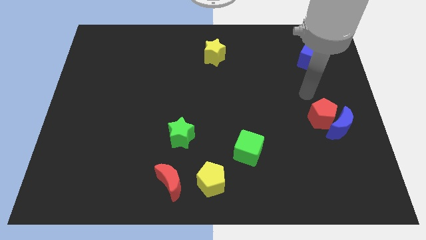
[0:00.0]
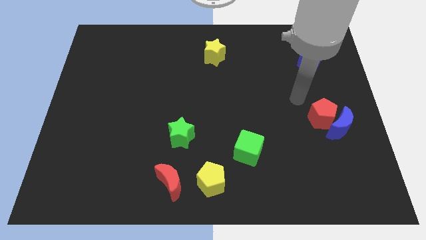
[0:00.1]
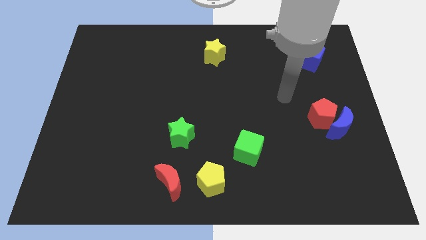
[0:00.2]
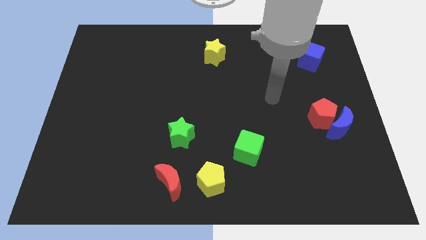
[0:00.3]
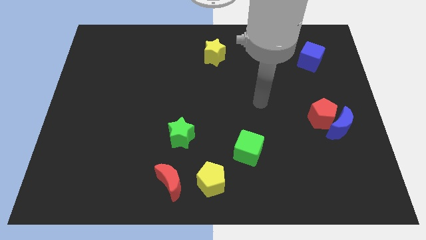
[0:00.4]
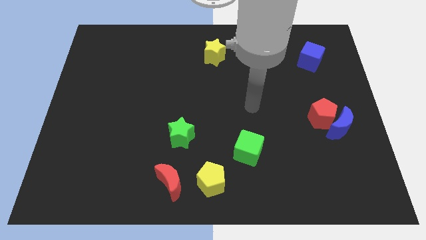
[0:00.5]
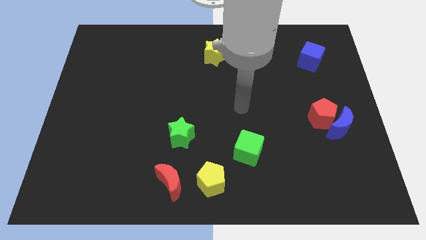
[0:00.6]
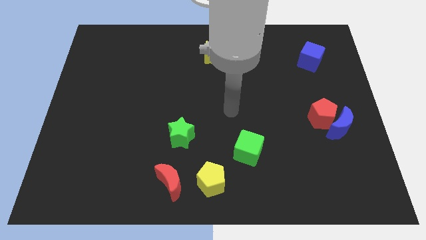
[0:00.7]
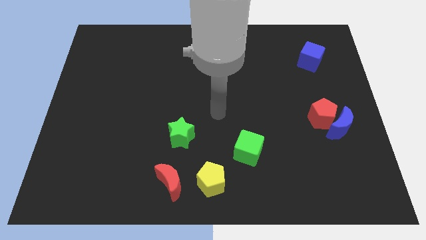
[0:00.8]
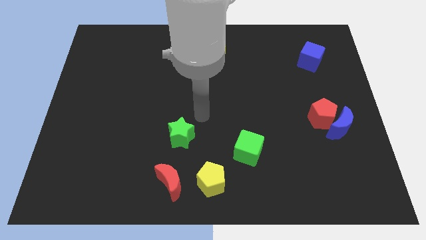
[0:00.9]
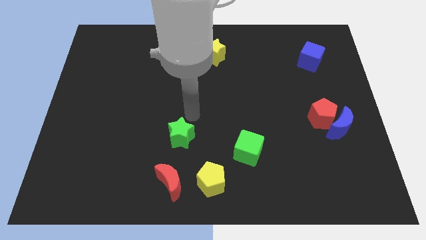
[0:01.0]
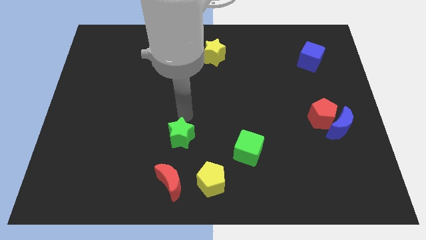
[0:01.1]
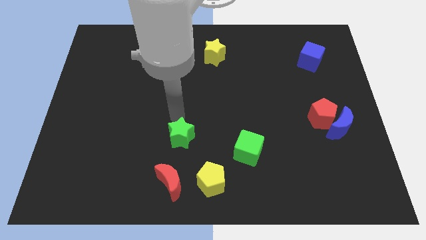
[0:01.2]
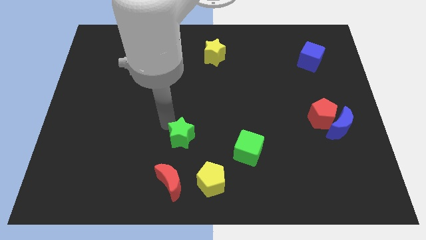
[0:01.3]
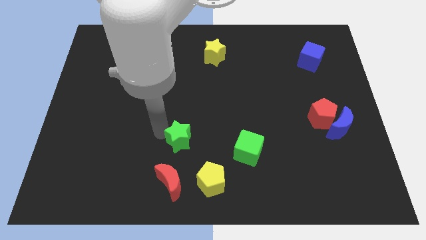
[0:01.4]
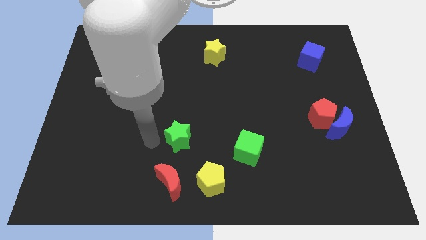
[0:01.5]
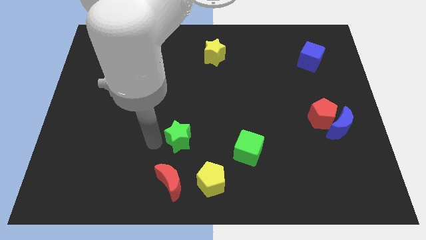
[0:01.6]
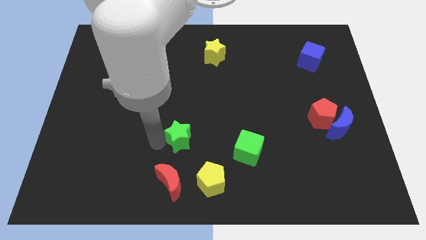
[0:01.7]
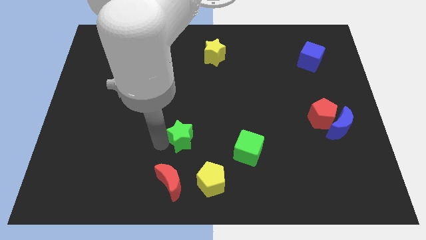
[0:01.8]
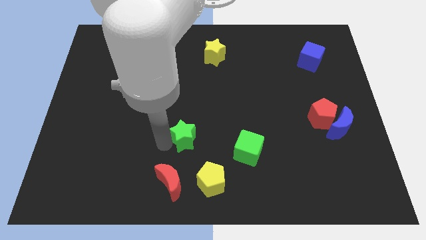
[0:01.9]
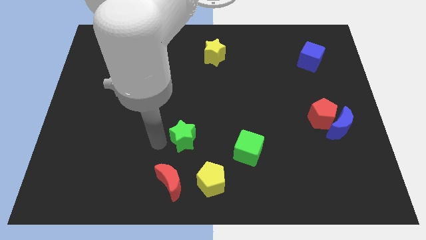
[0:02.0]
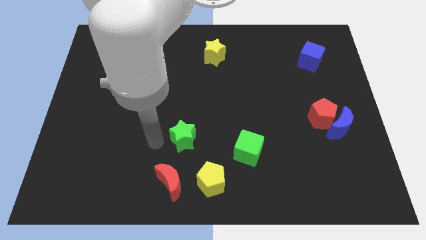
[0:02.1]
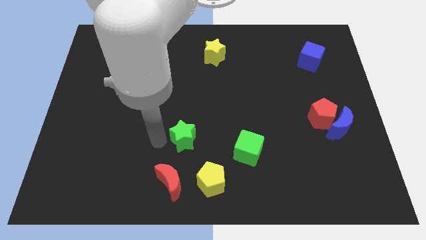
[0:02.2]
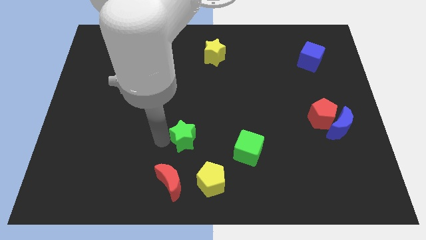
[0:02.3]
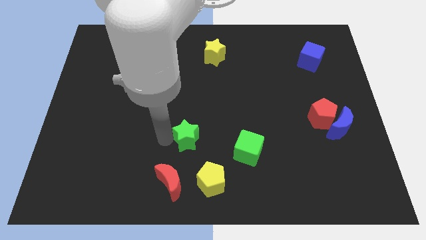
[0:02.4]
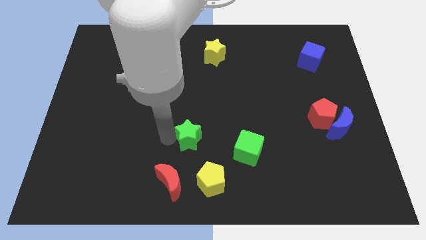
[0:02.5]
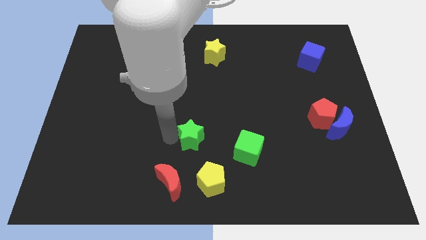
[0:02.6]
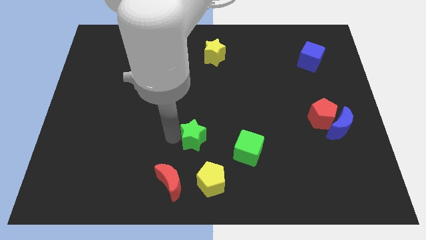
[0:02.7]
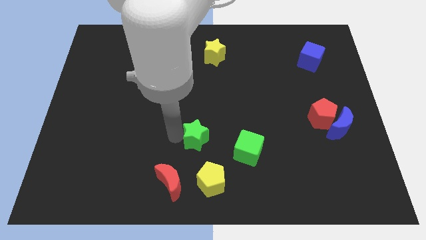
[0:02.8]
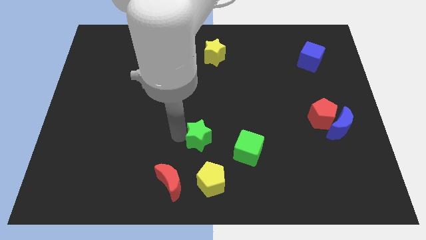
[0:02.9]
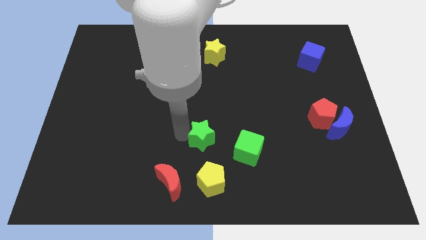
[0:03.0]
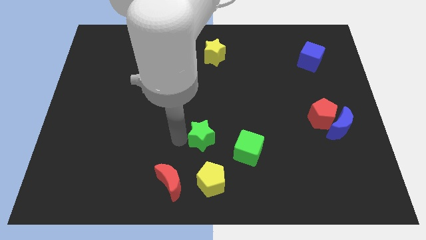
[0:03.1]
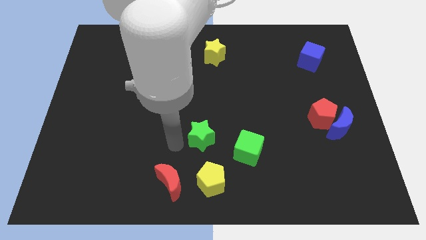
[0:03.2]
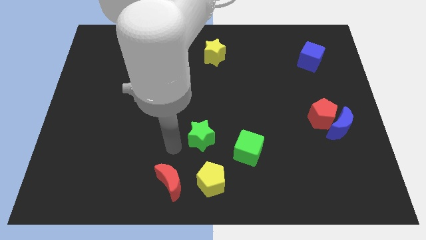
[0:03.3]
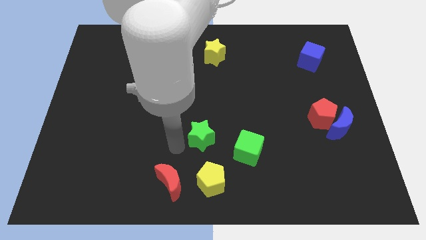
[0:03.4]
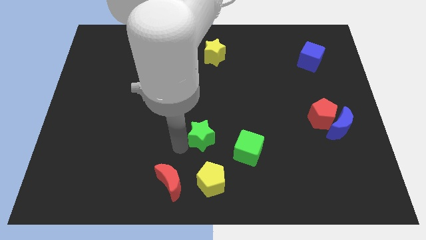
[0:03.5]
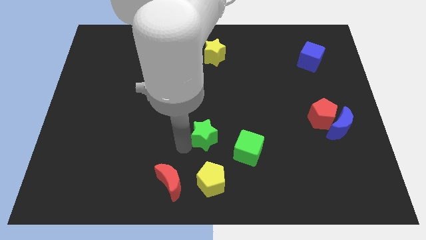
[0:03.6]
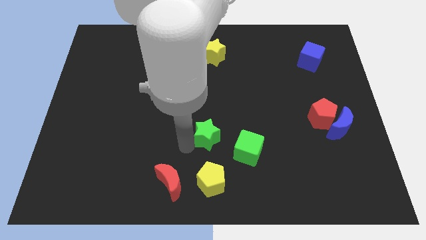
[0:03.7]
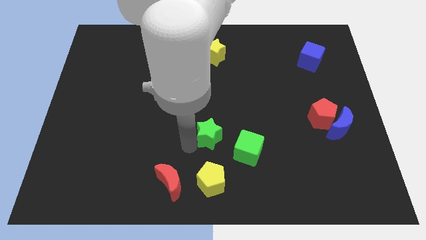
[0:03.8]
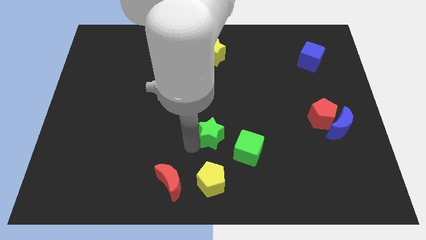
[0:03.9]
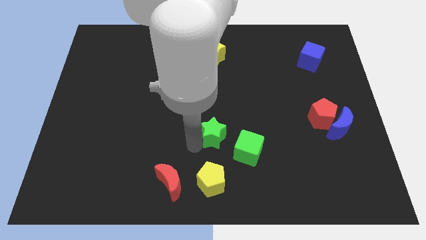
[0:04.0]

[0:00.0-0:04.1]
move the green star to the right a little

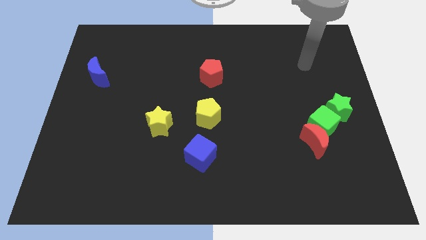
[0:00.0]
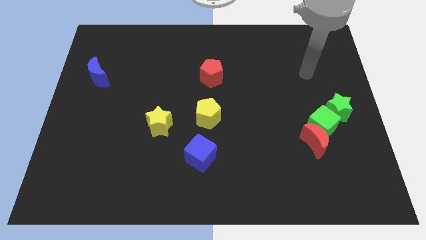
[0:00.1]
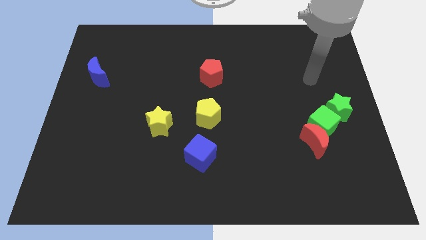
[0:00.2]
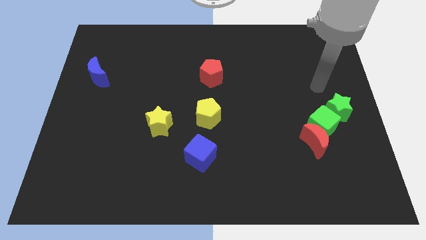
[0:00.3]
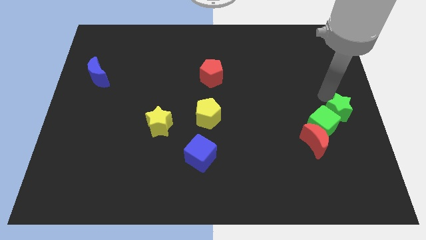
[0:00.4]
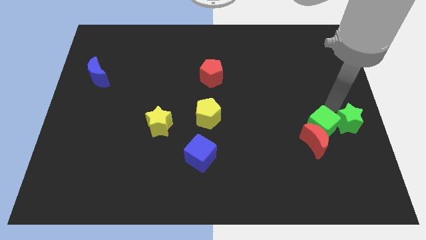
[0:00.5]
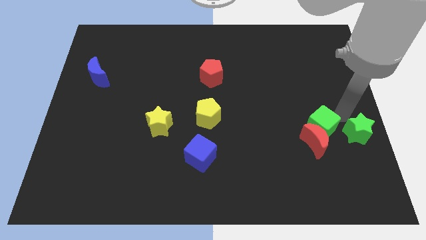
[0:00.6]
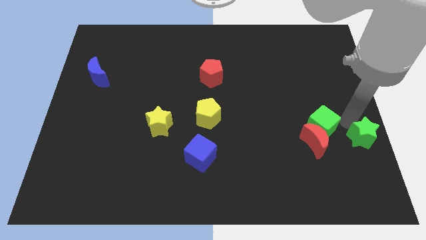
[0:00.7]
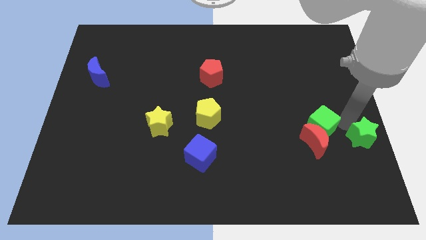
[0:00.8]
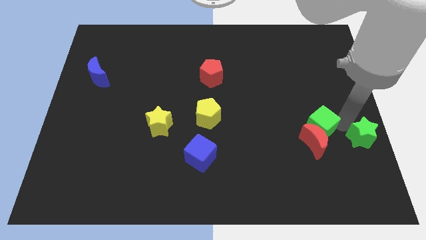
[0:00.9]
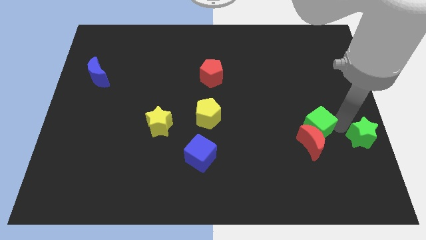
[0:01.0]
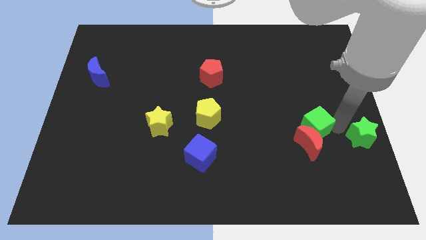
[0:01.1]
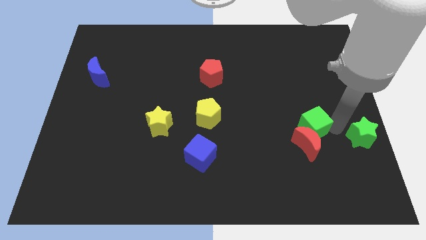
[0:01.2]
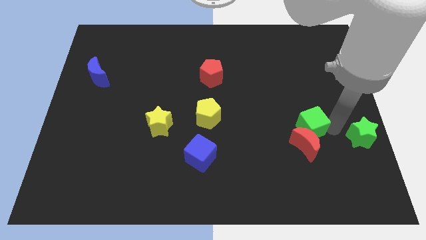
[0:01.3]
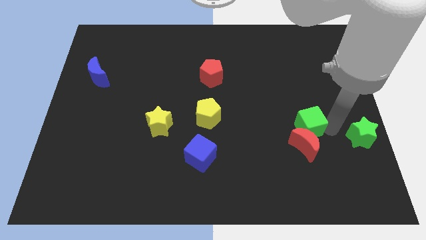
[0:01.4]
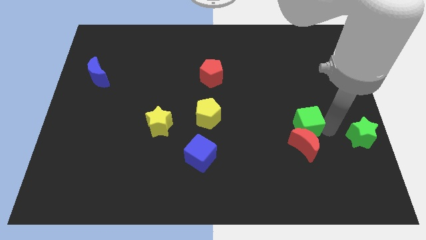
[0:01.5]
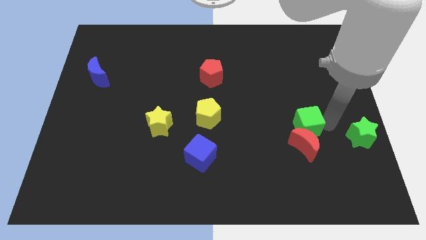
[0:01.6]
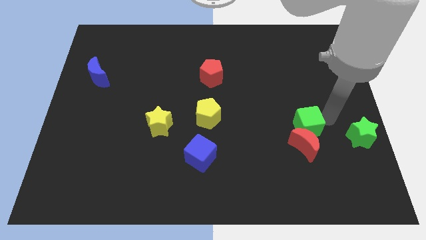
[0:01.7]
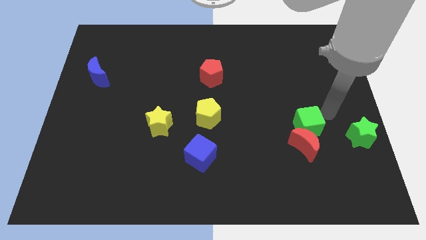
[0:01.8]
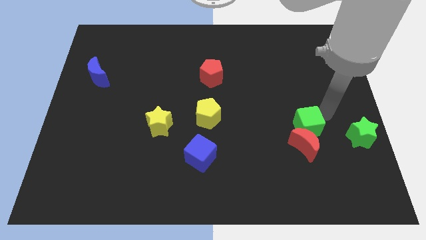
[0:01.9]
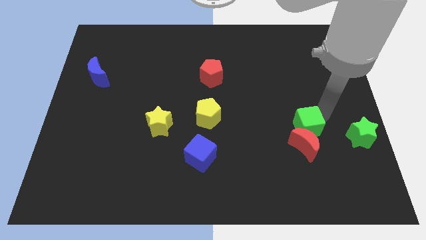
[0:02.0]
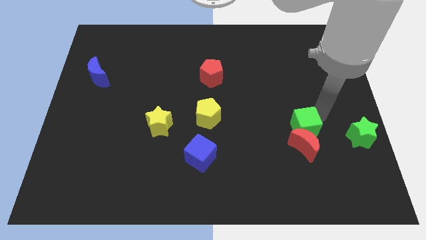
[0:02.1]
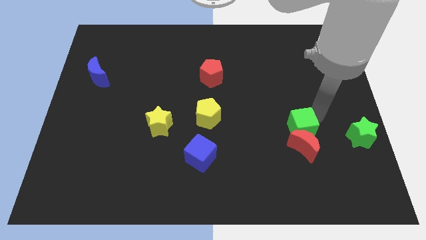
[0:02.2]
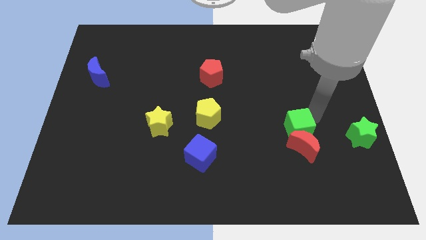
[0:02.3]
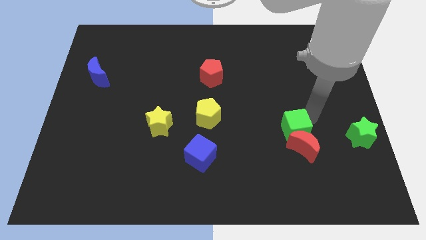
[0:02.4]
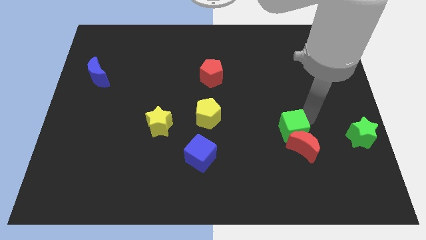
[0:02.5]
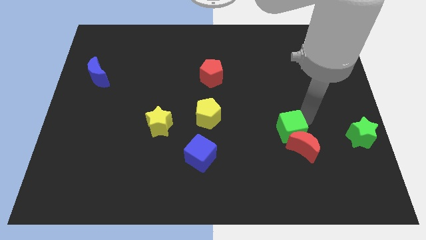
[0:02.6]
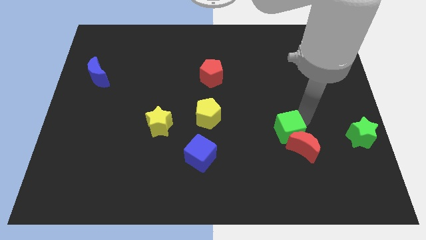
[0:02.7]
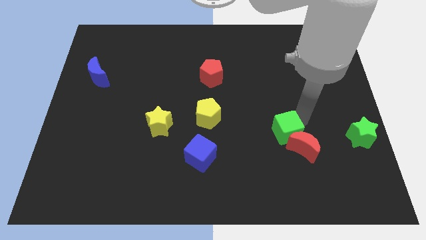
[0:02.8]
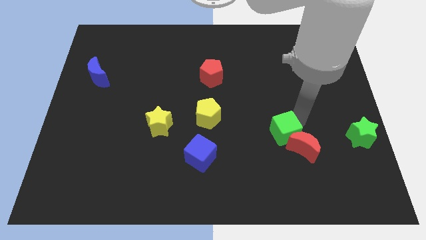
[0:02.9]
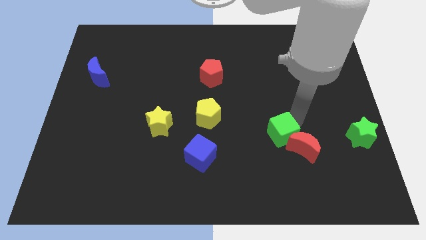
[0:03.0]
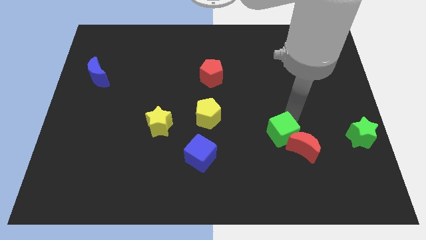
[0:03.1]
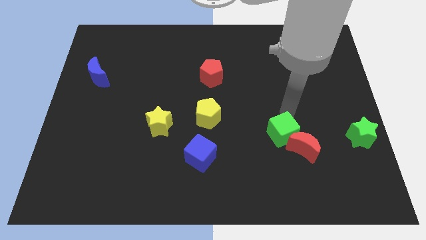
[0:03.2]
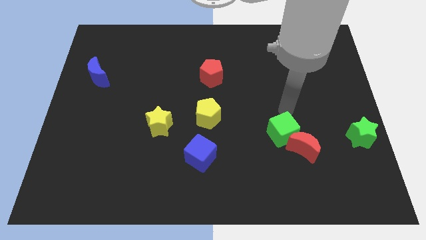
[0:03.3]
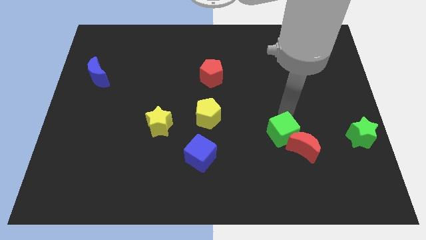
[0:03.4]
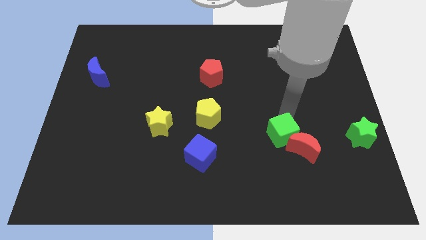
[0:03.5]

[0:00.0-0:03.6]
move the green cube a little downwards and then left
